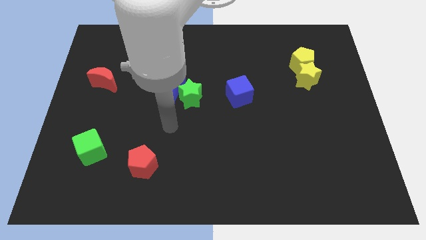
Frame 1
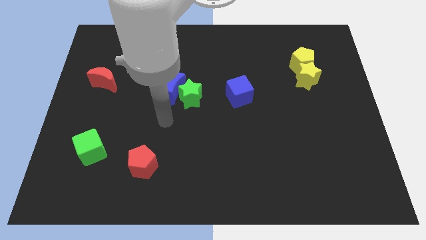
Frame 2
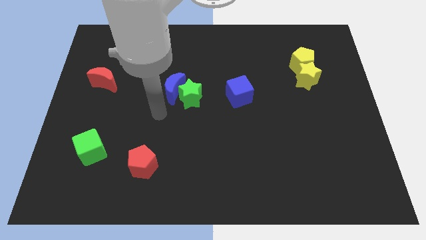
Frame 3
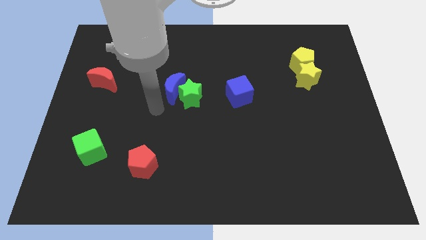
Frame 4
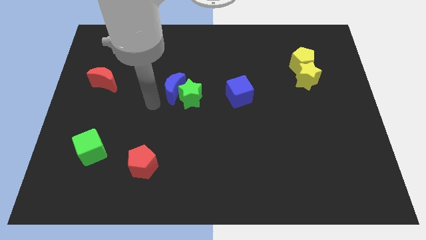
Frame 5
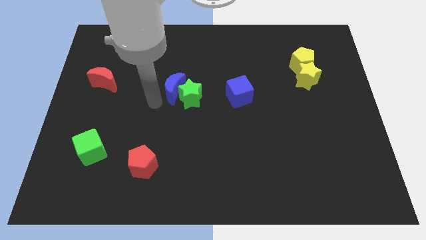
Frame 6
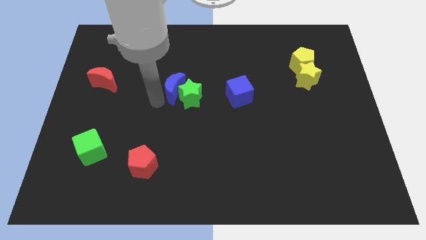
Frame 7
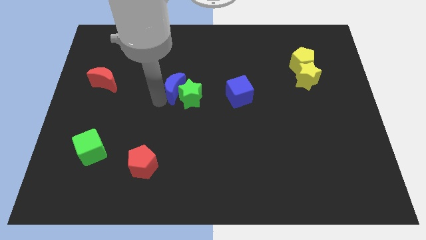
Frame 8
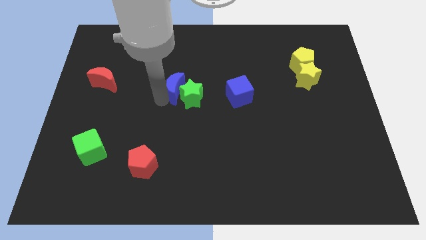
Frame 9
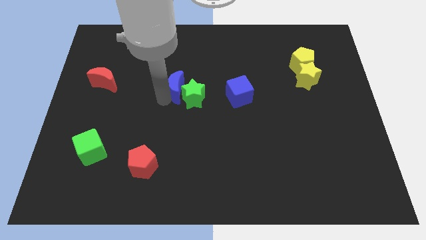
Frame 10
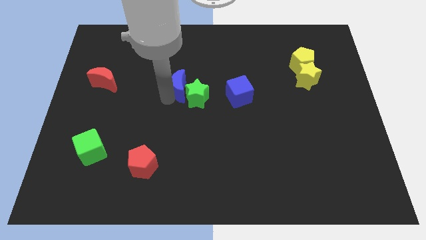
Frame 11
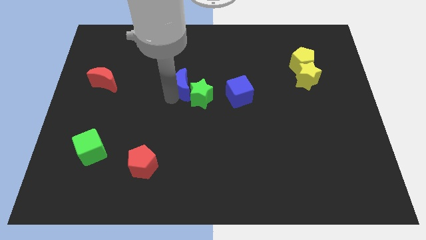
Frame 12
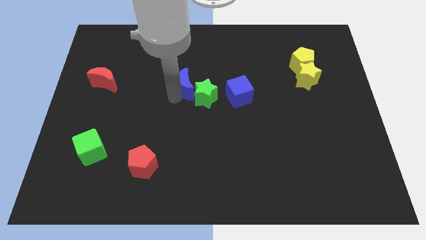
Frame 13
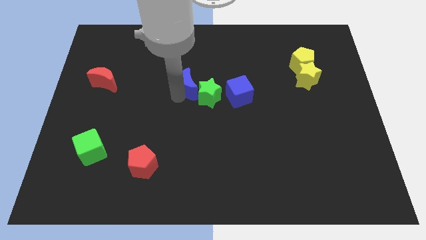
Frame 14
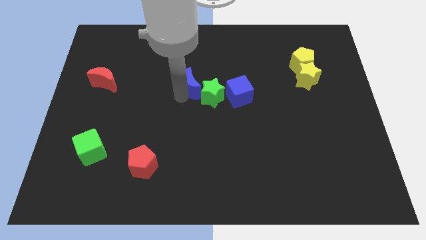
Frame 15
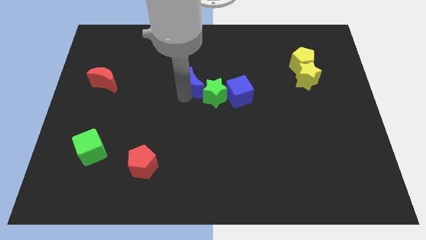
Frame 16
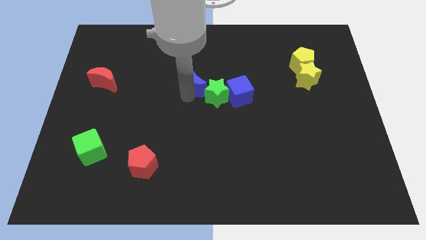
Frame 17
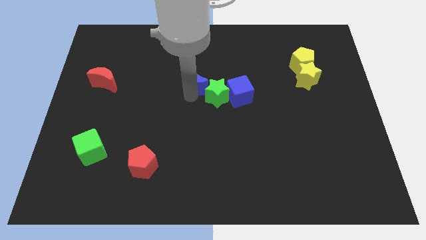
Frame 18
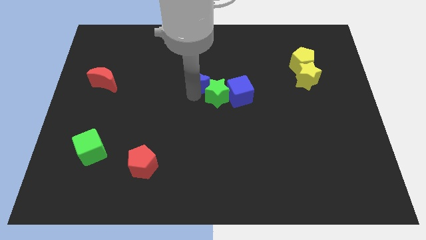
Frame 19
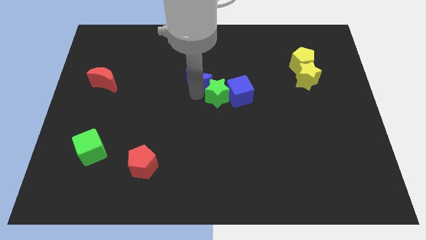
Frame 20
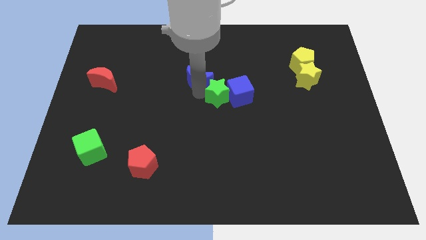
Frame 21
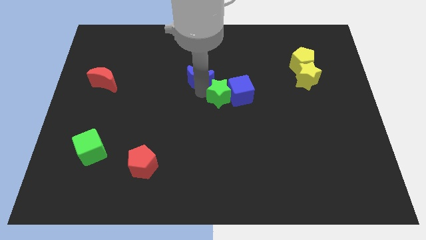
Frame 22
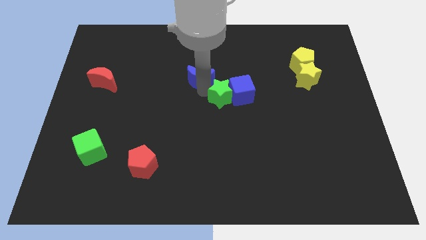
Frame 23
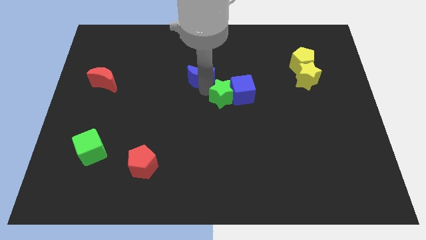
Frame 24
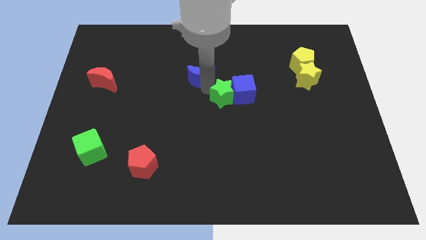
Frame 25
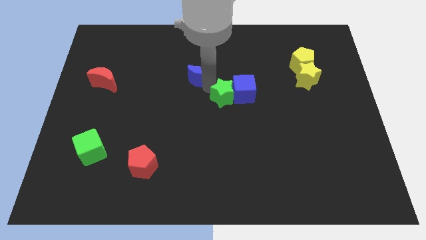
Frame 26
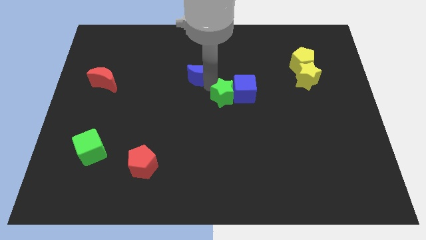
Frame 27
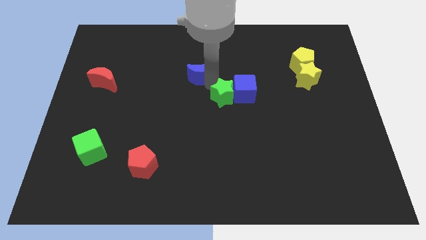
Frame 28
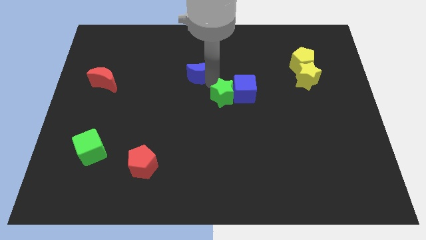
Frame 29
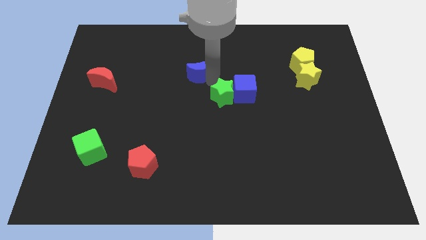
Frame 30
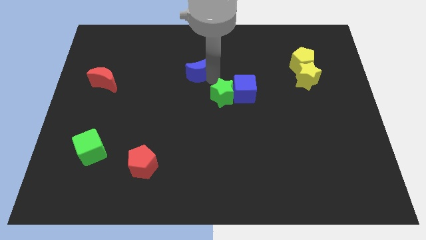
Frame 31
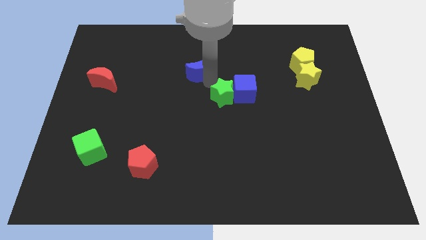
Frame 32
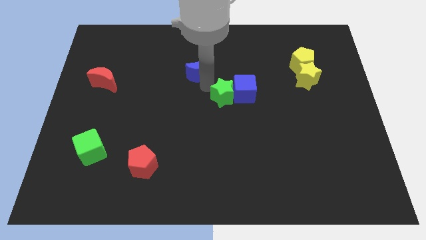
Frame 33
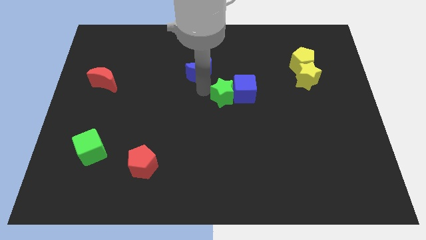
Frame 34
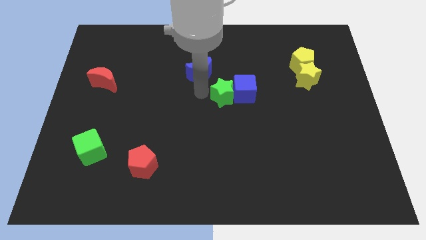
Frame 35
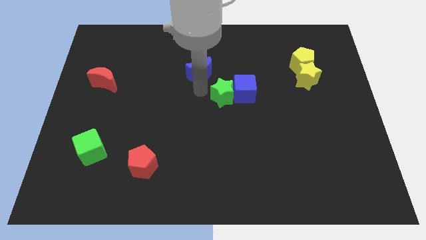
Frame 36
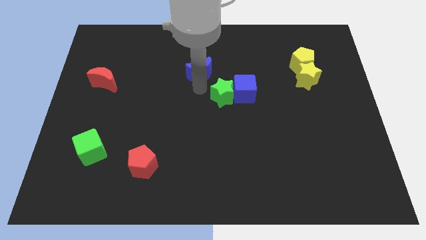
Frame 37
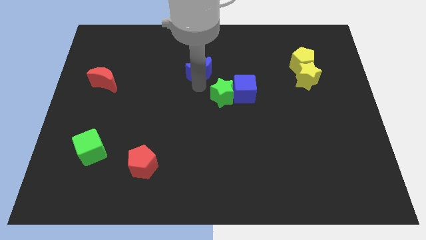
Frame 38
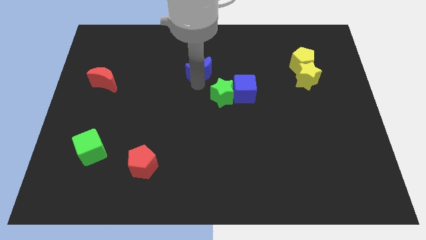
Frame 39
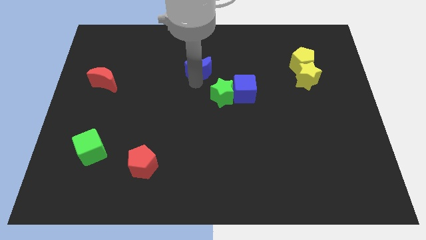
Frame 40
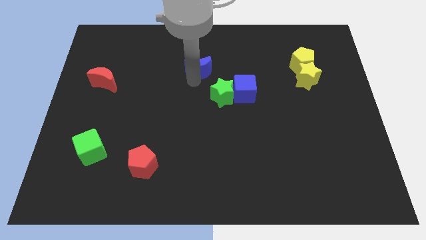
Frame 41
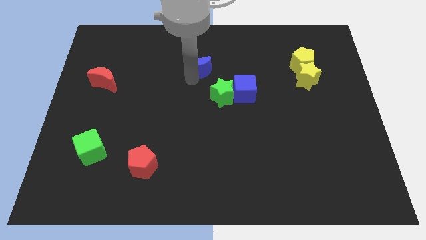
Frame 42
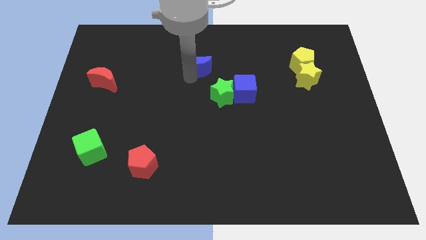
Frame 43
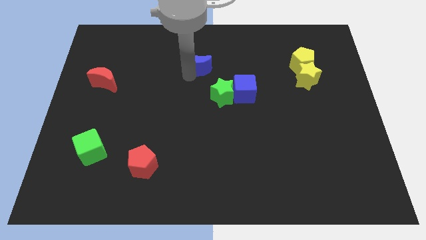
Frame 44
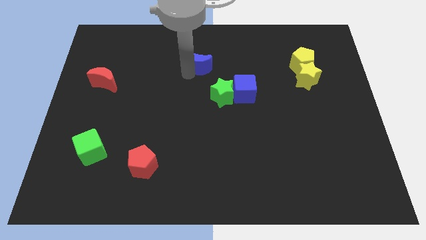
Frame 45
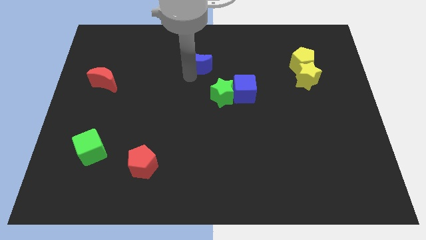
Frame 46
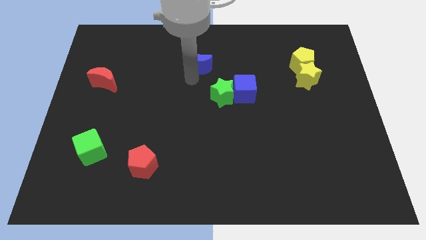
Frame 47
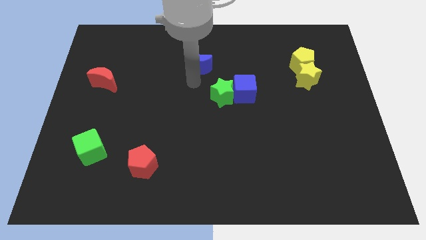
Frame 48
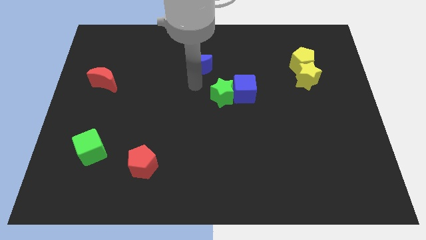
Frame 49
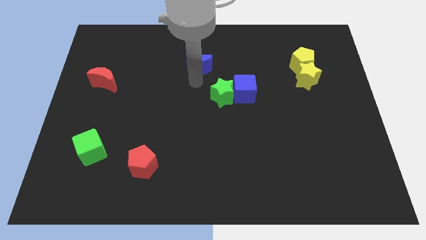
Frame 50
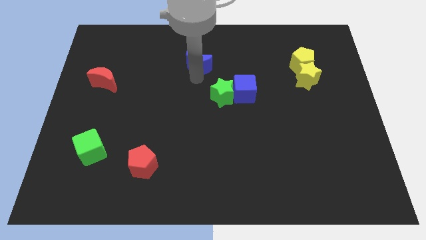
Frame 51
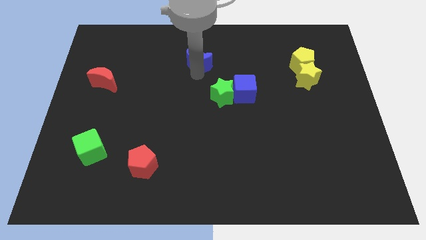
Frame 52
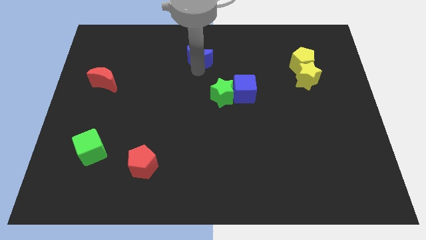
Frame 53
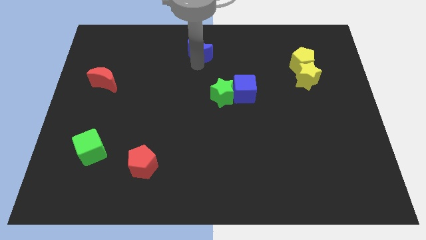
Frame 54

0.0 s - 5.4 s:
push the blue moon to the top side
